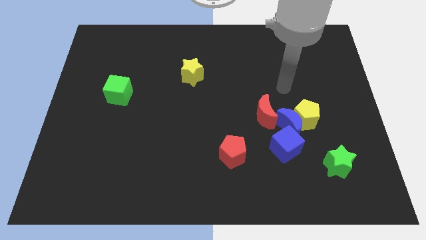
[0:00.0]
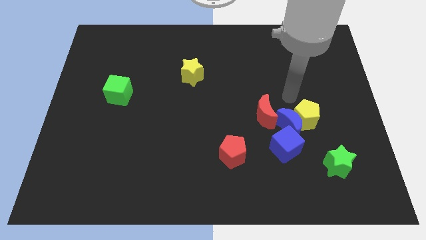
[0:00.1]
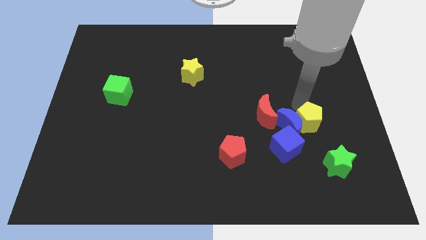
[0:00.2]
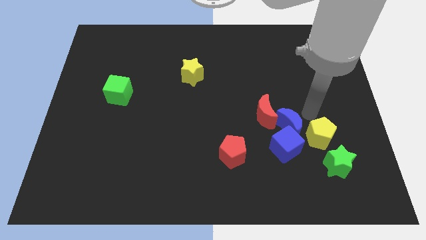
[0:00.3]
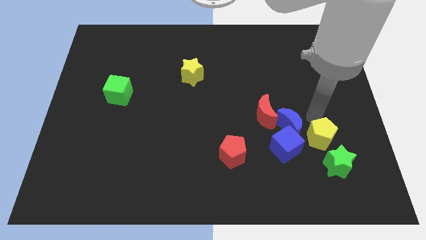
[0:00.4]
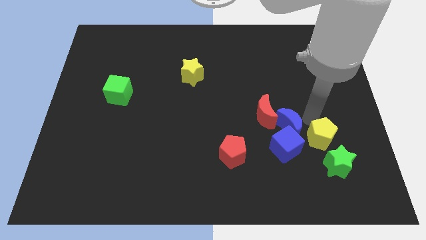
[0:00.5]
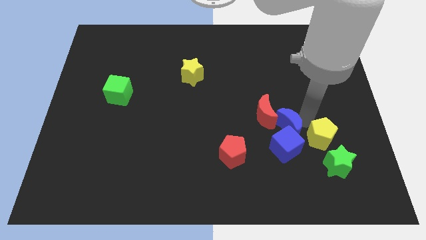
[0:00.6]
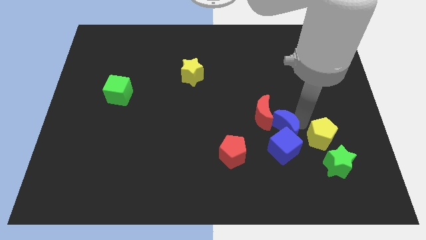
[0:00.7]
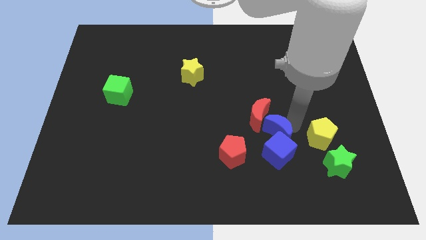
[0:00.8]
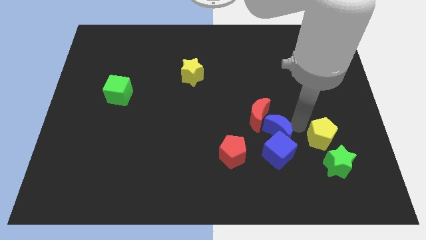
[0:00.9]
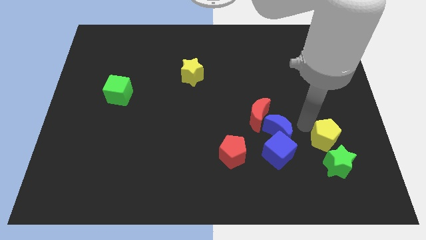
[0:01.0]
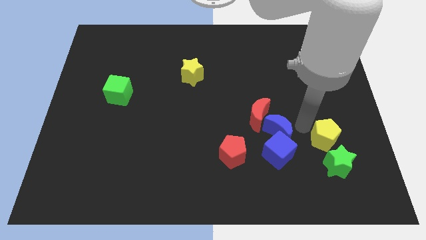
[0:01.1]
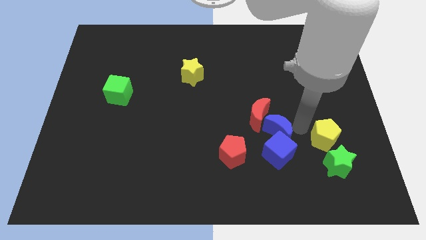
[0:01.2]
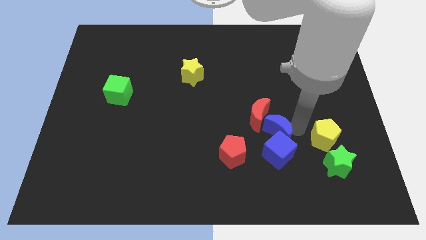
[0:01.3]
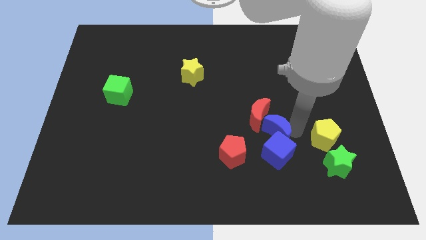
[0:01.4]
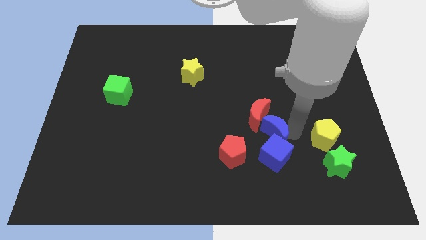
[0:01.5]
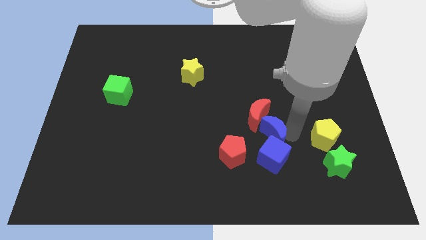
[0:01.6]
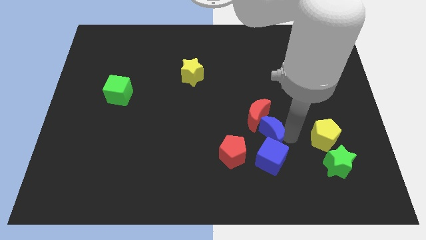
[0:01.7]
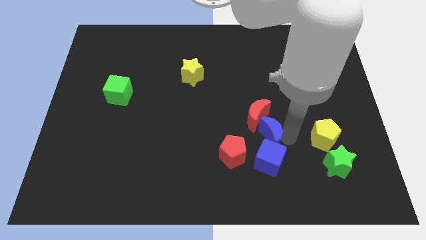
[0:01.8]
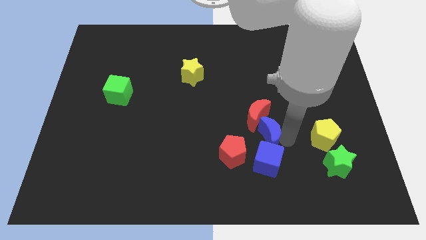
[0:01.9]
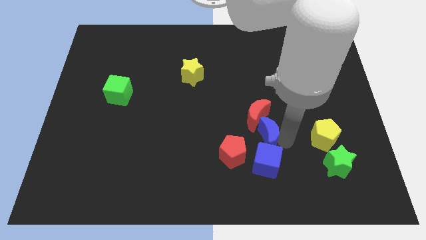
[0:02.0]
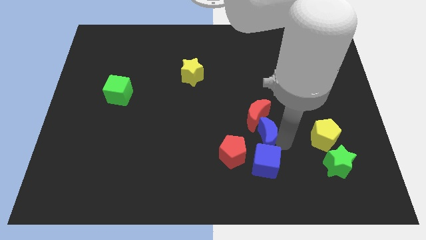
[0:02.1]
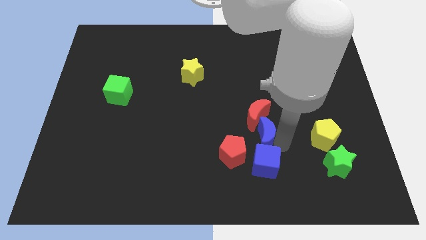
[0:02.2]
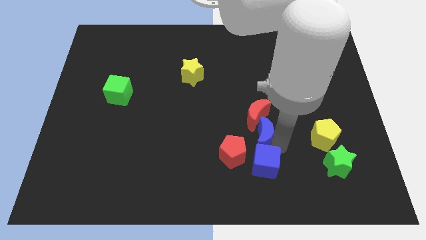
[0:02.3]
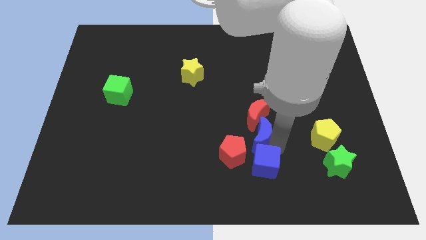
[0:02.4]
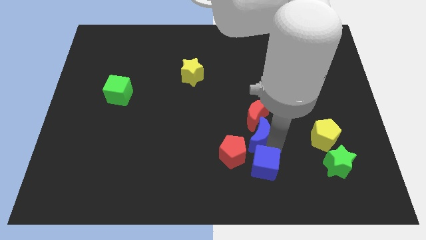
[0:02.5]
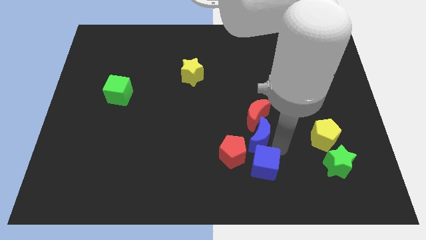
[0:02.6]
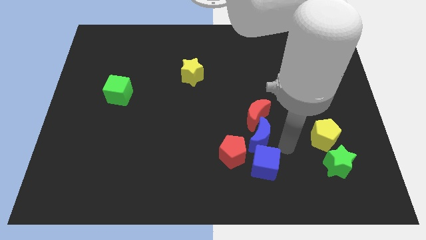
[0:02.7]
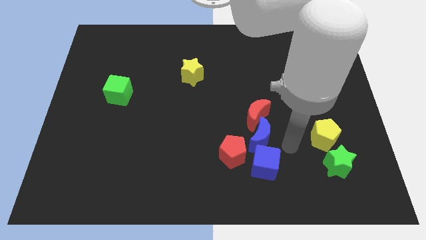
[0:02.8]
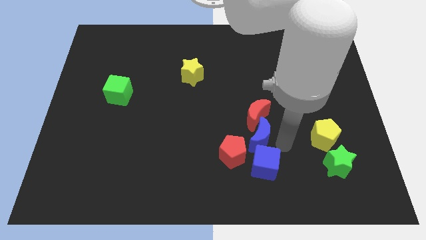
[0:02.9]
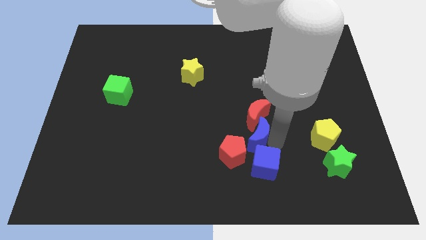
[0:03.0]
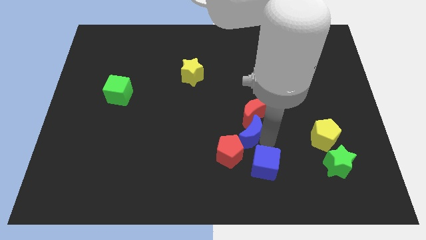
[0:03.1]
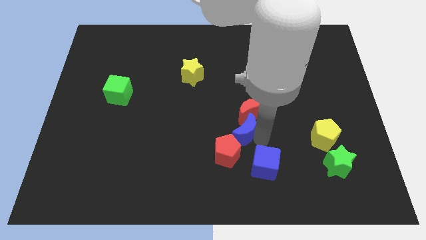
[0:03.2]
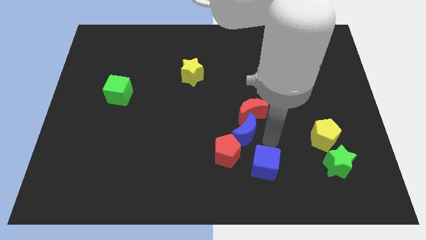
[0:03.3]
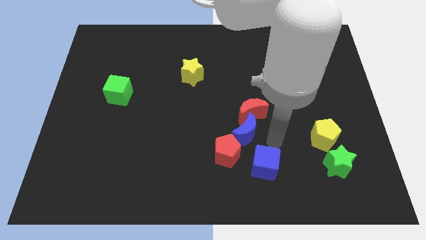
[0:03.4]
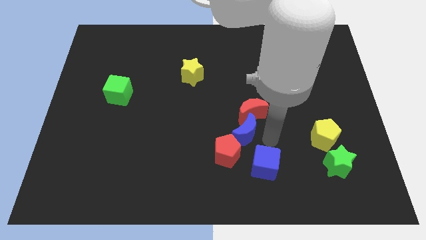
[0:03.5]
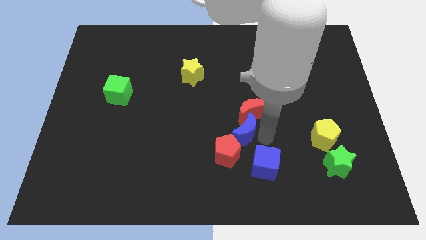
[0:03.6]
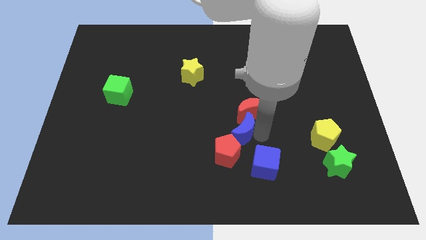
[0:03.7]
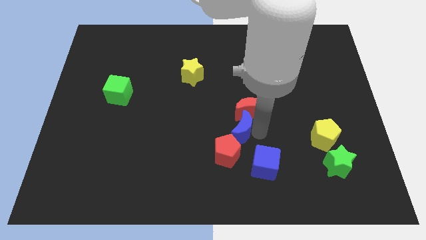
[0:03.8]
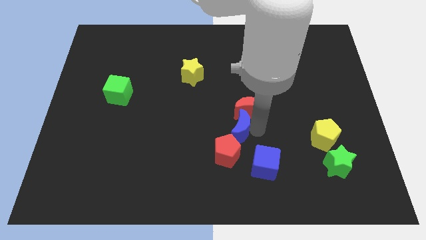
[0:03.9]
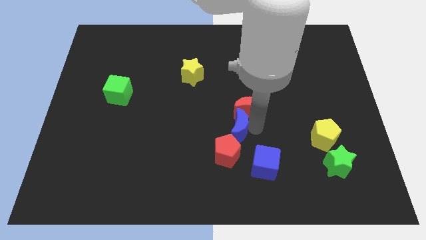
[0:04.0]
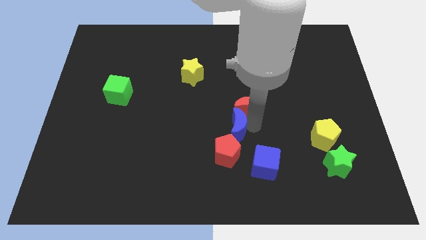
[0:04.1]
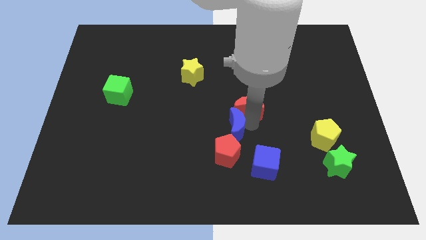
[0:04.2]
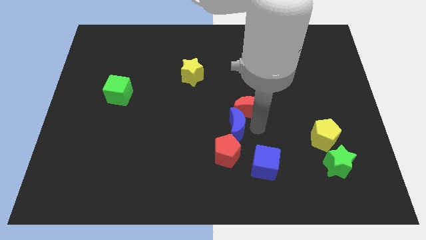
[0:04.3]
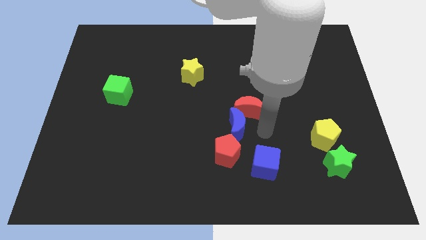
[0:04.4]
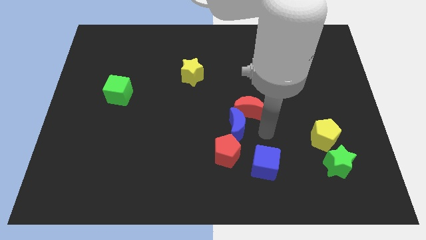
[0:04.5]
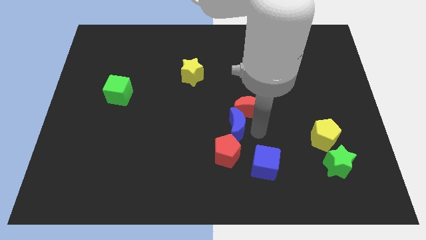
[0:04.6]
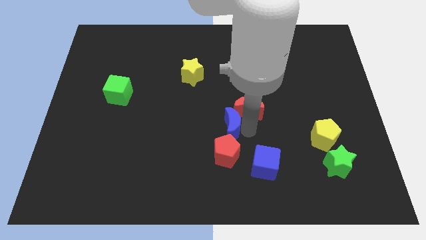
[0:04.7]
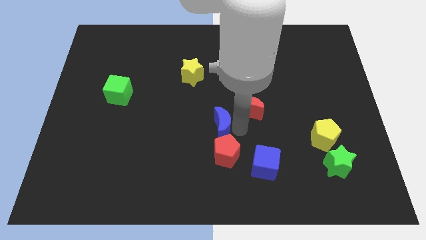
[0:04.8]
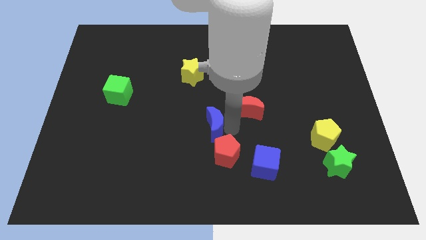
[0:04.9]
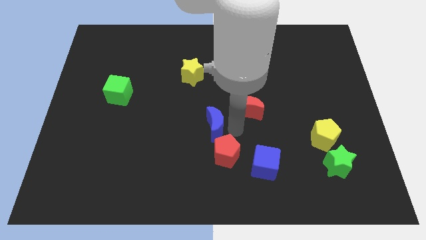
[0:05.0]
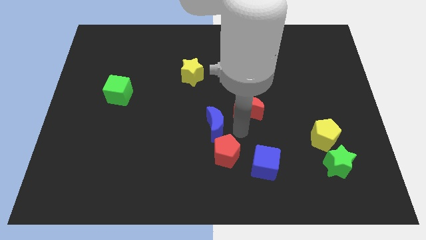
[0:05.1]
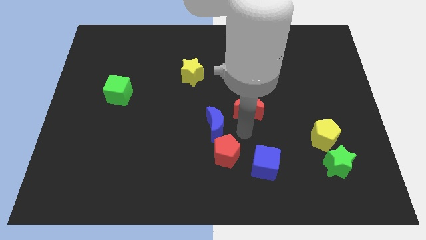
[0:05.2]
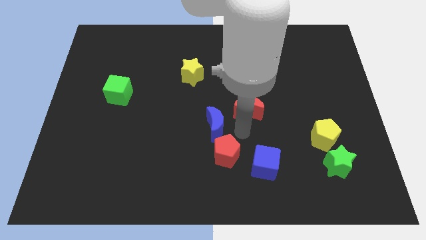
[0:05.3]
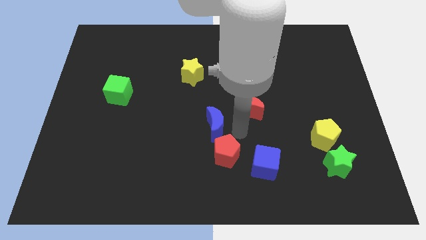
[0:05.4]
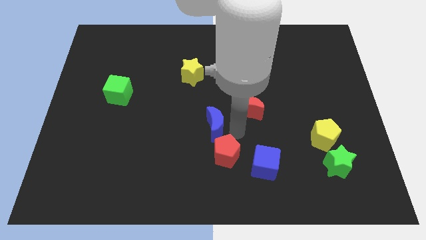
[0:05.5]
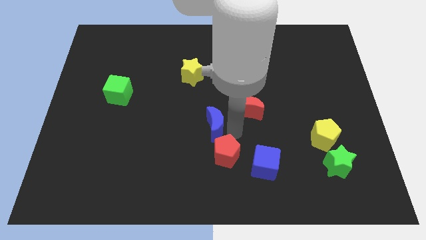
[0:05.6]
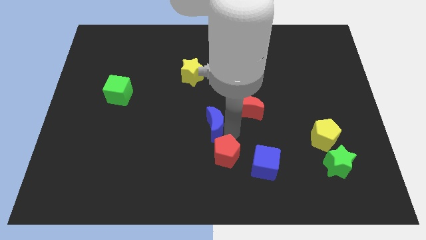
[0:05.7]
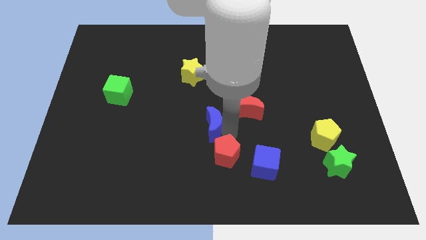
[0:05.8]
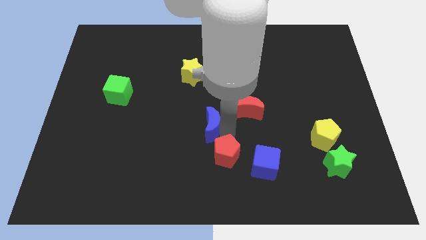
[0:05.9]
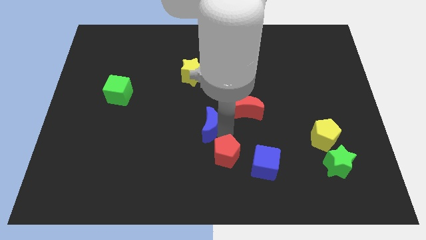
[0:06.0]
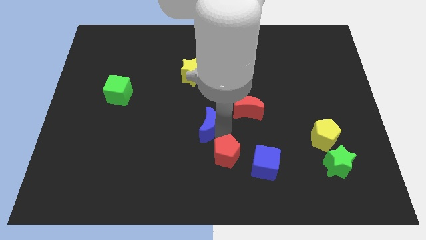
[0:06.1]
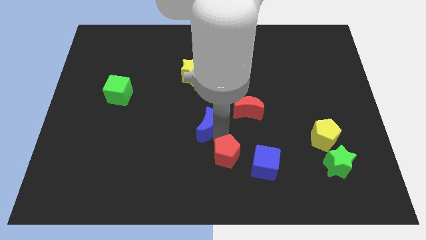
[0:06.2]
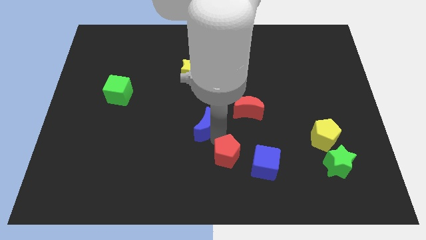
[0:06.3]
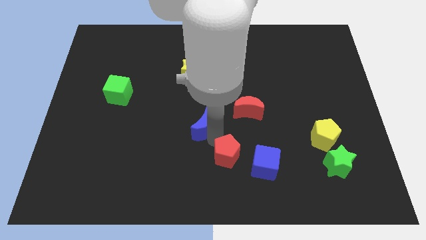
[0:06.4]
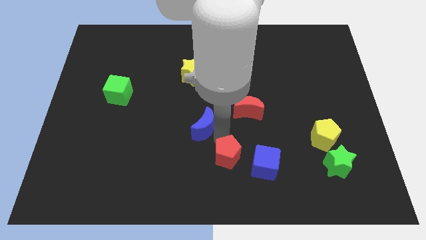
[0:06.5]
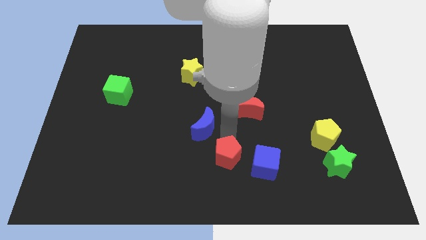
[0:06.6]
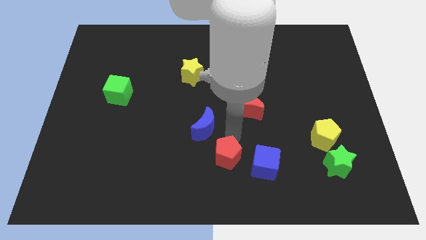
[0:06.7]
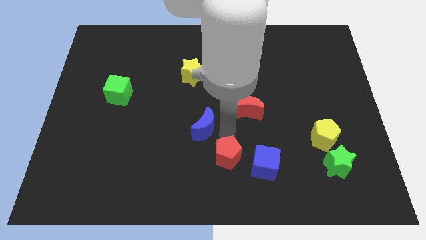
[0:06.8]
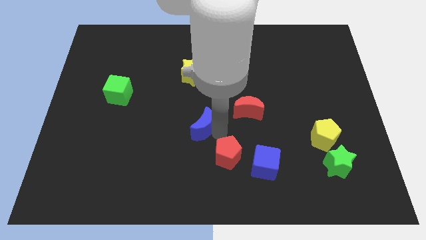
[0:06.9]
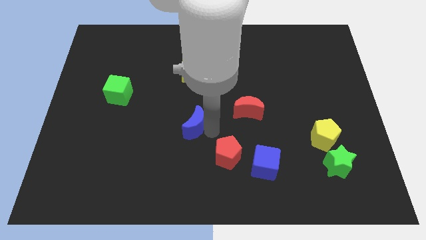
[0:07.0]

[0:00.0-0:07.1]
push the blue moon to the left

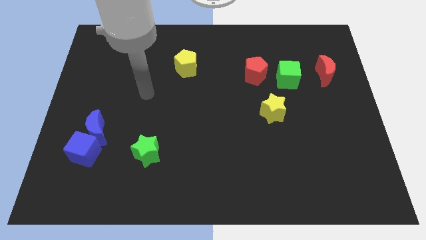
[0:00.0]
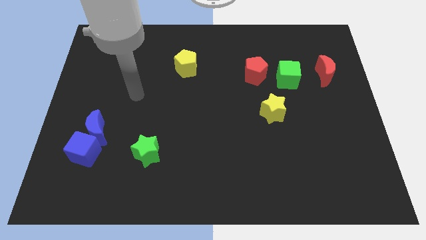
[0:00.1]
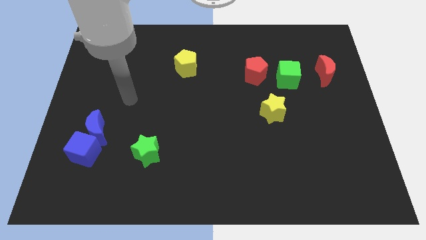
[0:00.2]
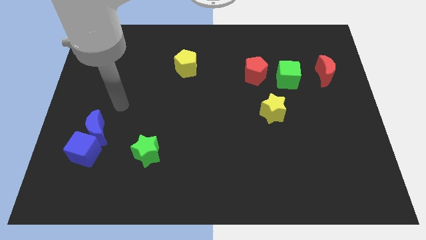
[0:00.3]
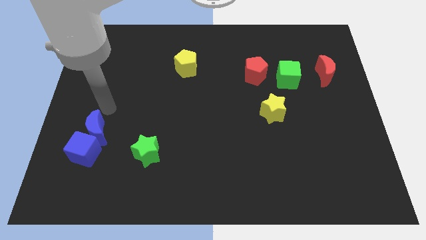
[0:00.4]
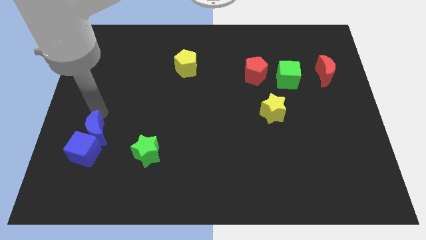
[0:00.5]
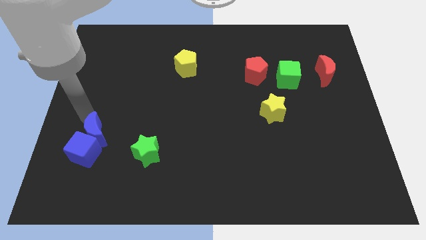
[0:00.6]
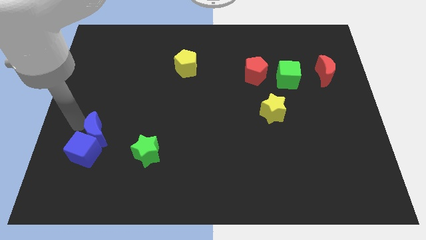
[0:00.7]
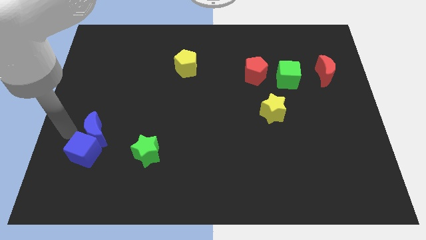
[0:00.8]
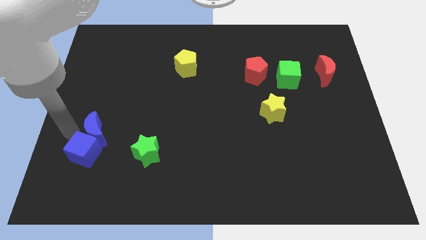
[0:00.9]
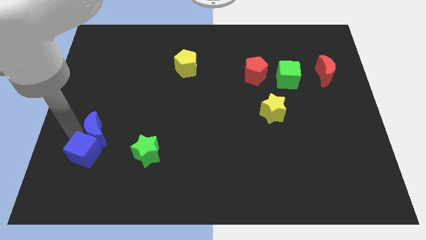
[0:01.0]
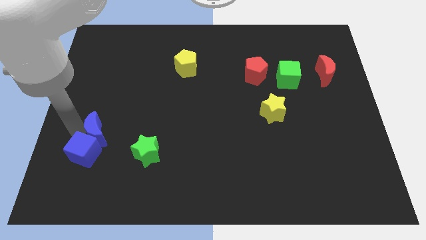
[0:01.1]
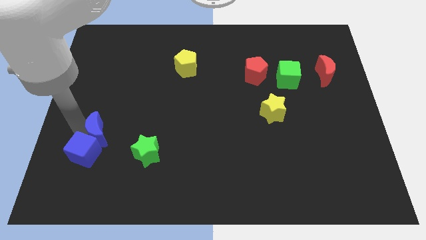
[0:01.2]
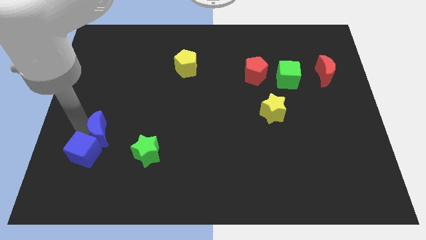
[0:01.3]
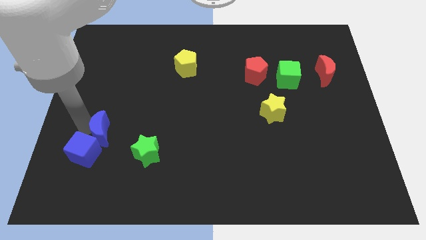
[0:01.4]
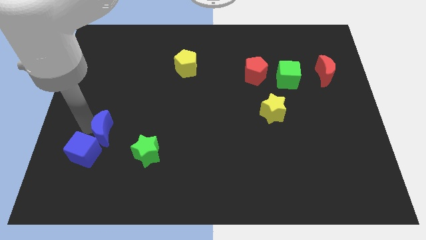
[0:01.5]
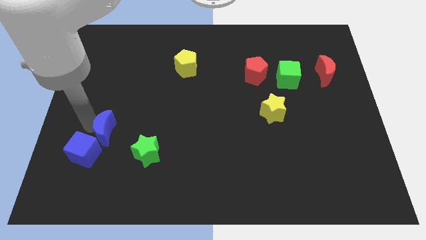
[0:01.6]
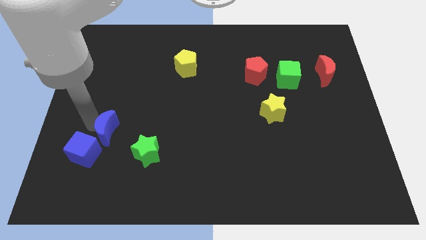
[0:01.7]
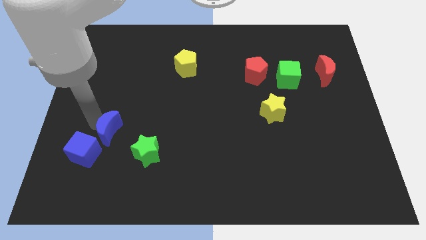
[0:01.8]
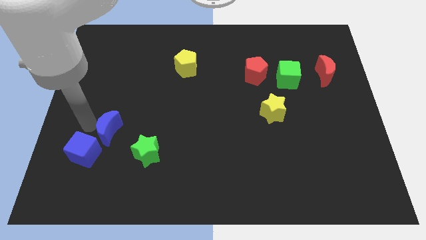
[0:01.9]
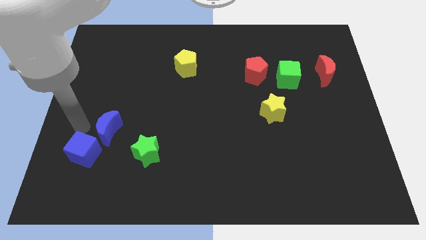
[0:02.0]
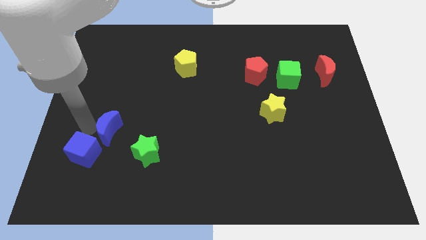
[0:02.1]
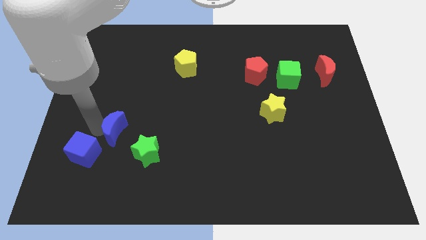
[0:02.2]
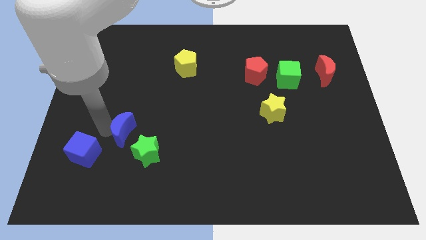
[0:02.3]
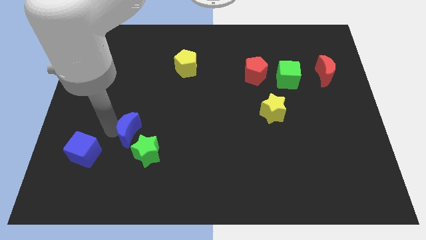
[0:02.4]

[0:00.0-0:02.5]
move the blue moon a bit to the right
